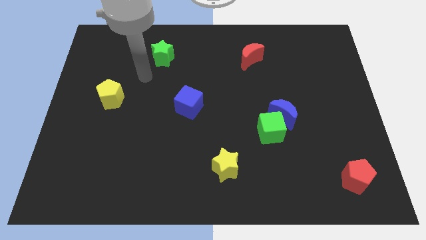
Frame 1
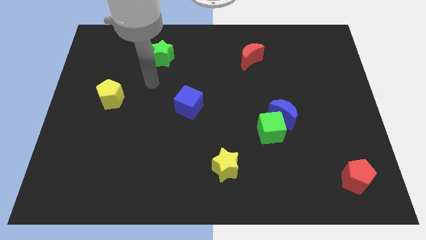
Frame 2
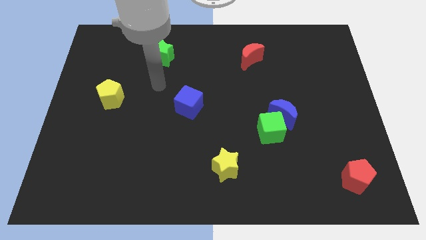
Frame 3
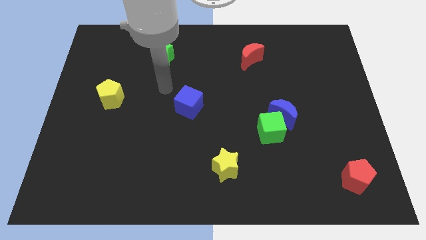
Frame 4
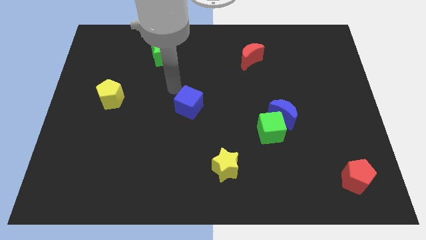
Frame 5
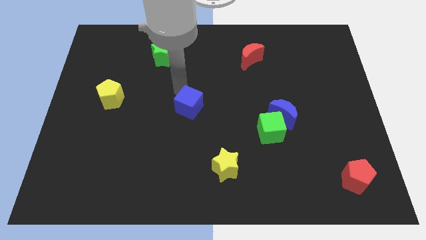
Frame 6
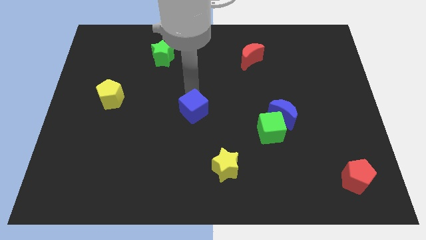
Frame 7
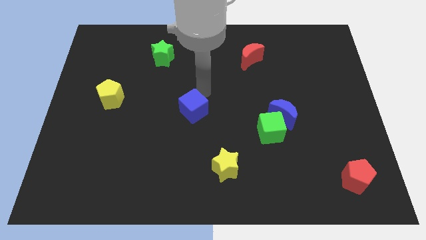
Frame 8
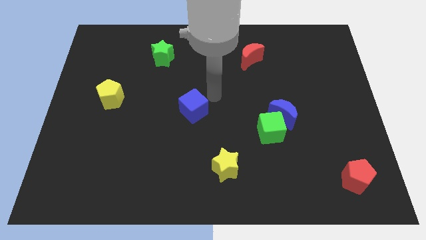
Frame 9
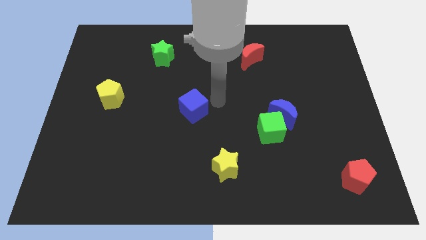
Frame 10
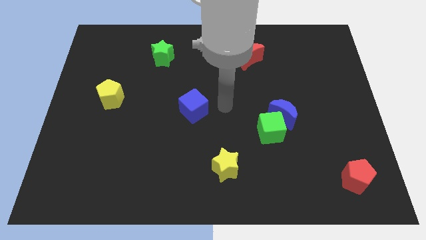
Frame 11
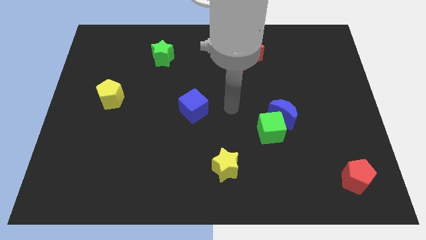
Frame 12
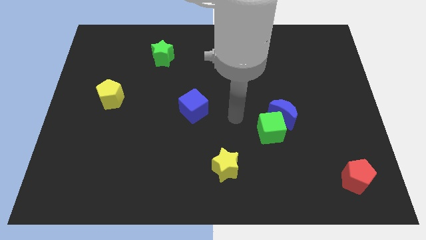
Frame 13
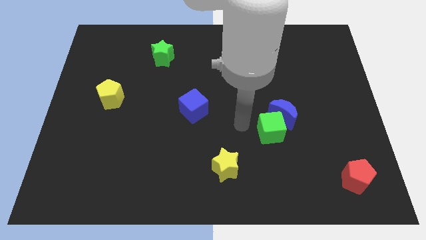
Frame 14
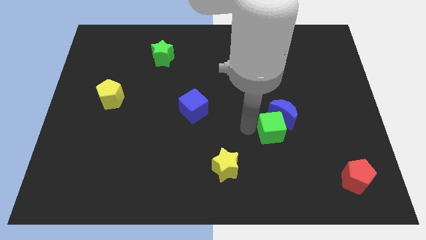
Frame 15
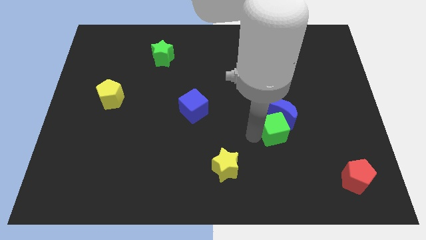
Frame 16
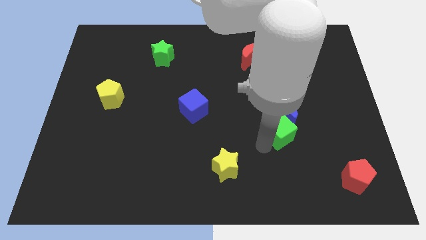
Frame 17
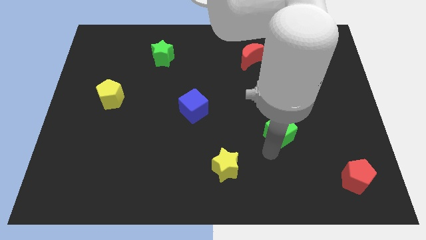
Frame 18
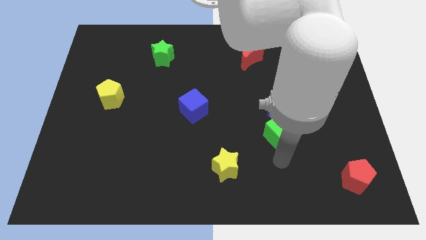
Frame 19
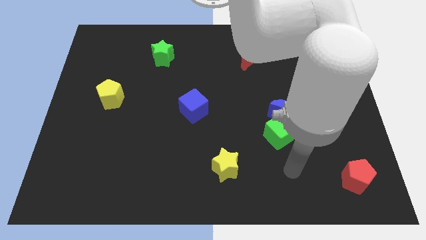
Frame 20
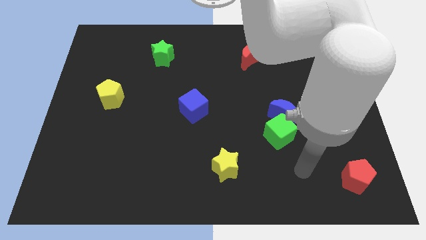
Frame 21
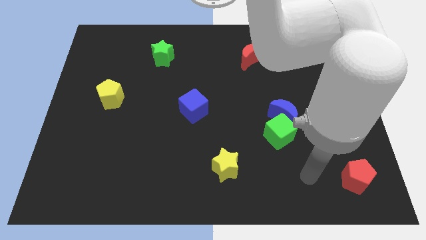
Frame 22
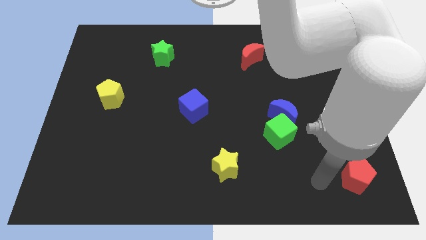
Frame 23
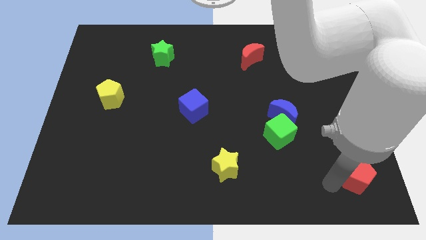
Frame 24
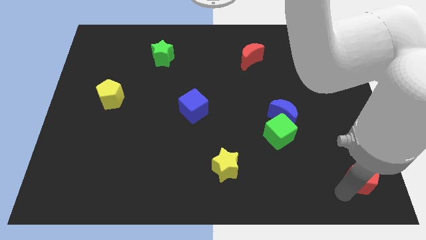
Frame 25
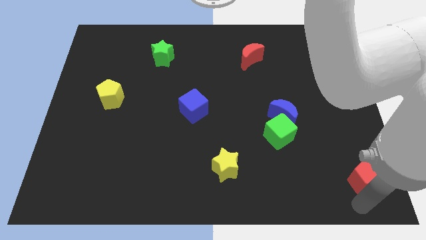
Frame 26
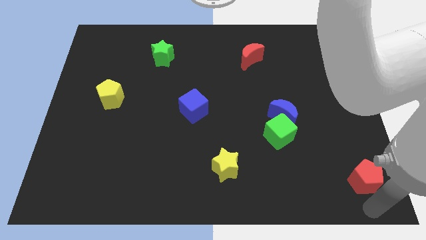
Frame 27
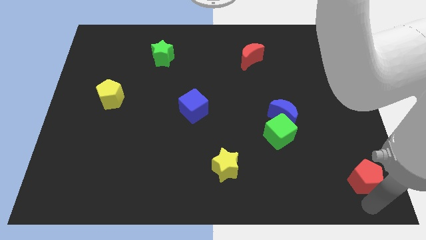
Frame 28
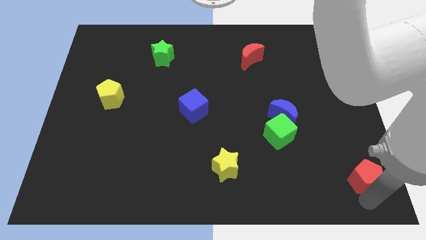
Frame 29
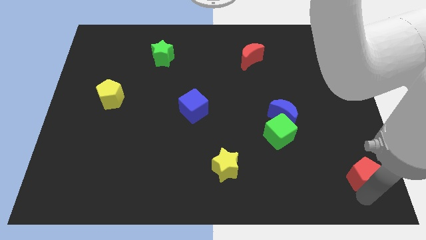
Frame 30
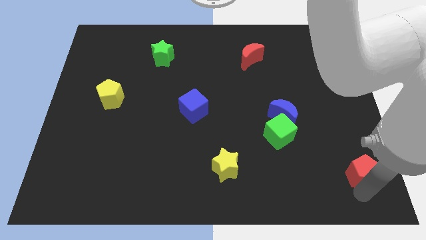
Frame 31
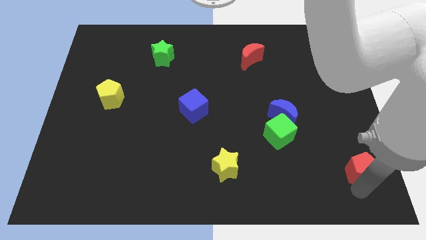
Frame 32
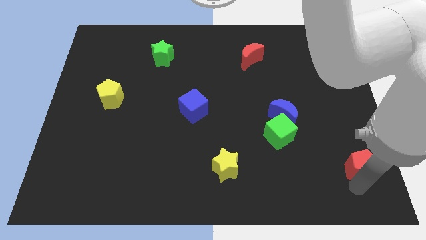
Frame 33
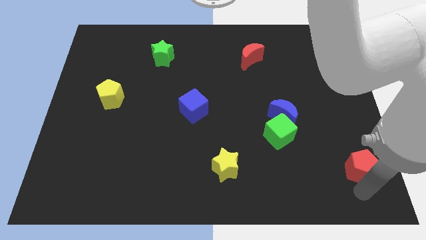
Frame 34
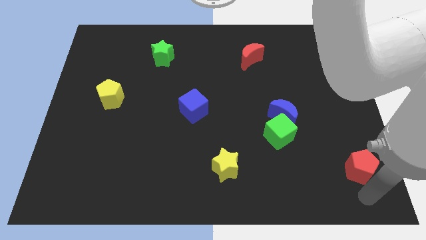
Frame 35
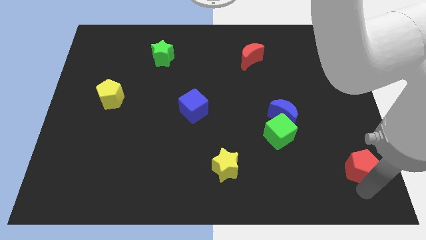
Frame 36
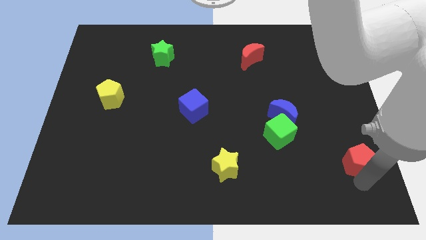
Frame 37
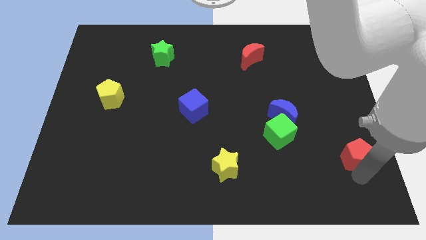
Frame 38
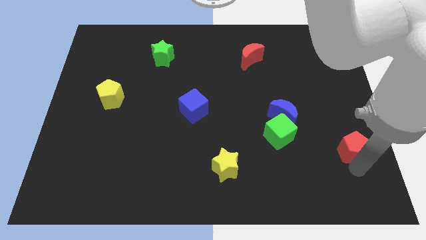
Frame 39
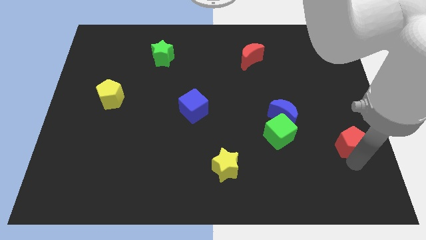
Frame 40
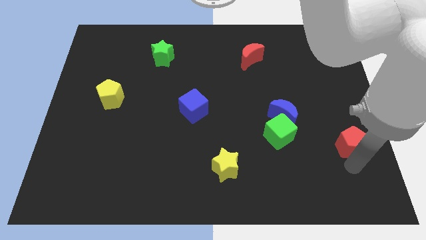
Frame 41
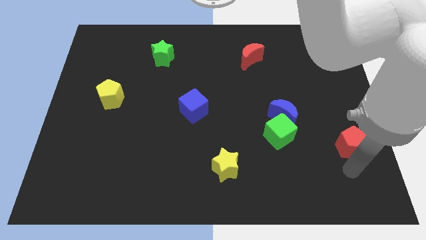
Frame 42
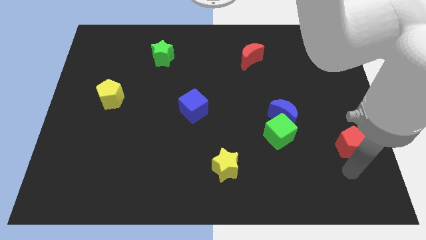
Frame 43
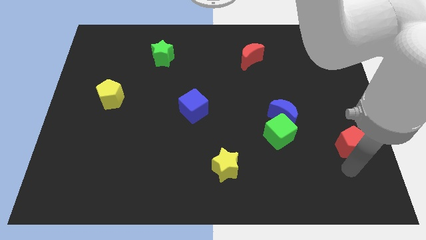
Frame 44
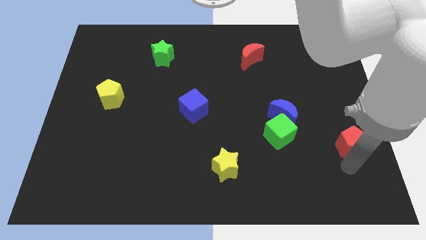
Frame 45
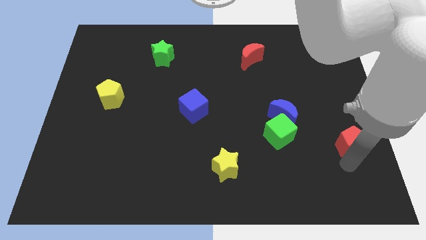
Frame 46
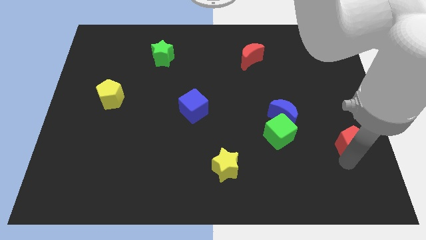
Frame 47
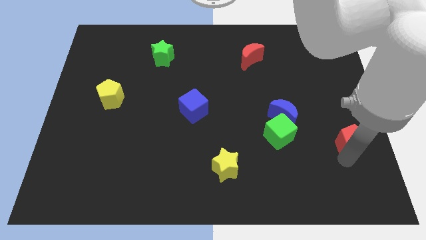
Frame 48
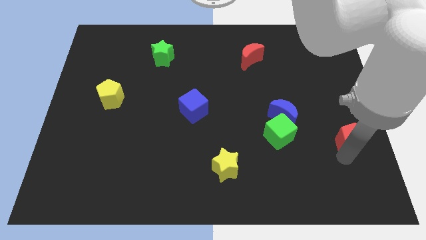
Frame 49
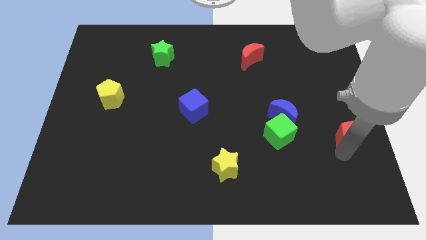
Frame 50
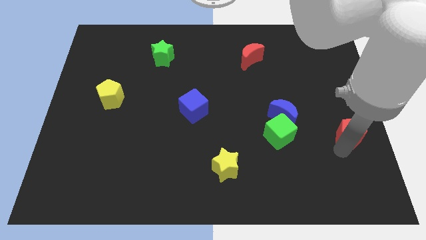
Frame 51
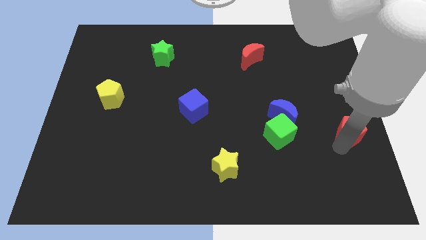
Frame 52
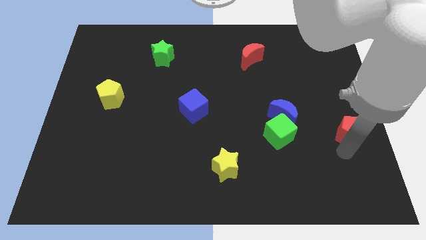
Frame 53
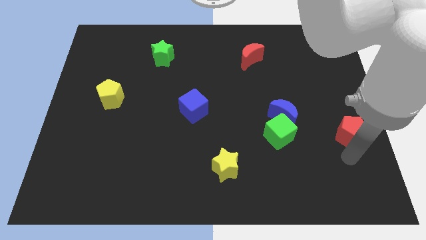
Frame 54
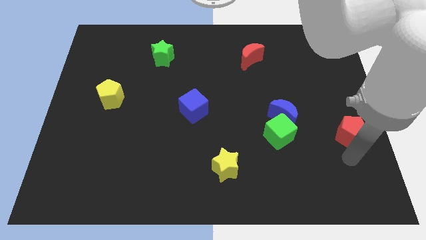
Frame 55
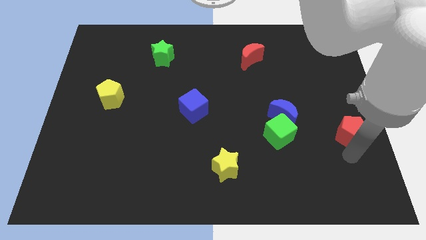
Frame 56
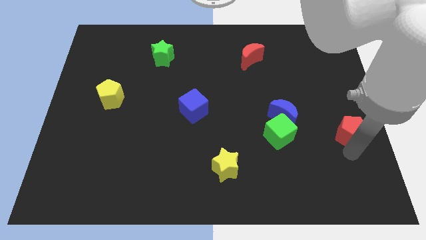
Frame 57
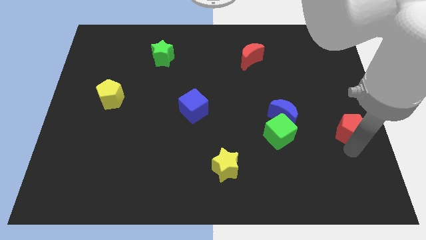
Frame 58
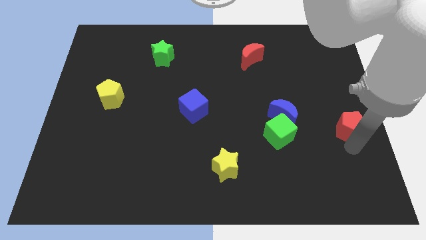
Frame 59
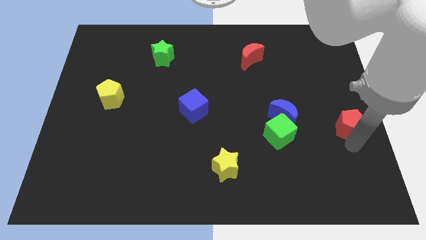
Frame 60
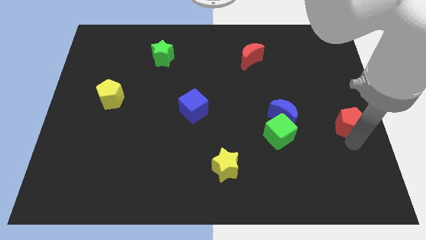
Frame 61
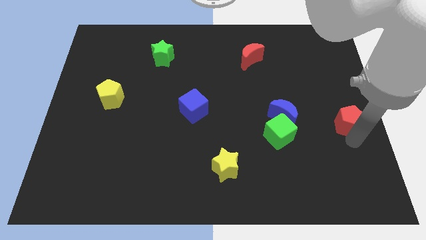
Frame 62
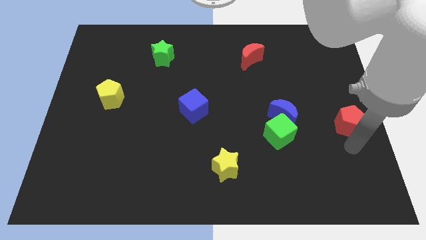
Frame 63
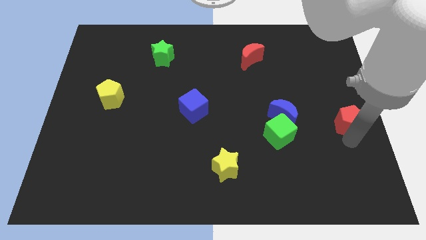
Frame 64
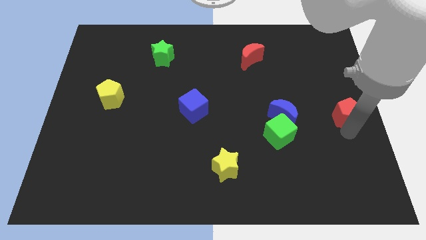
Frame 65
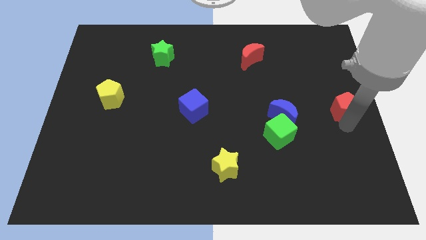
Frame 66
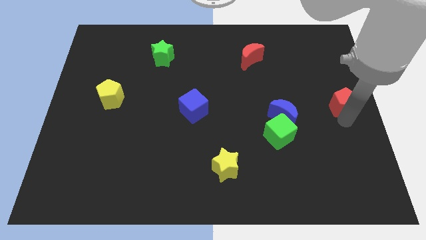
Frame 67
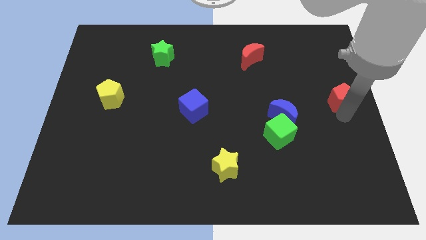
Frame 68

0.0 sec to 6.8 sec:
push the red pentagon up

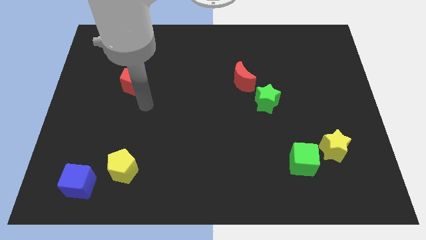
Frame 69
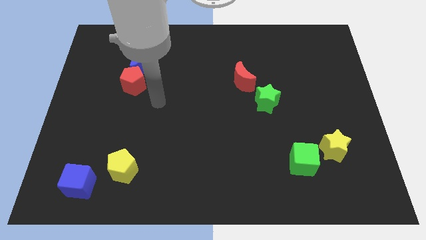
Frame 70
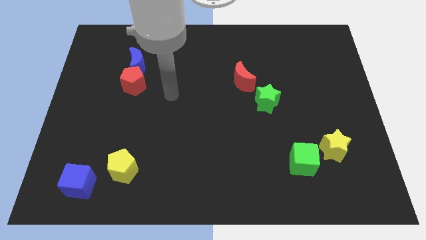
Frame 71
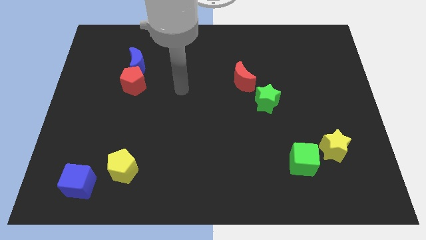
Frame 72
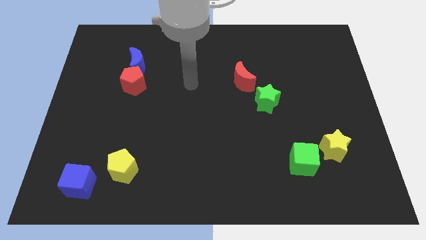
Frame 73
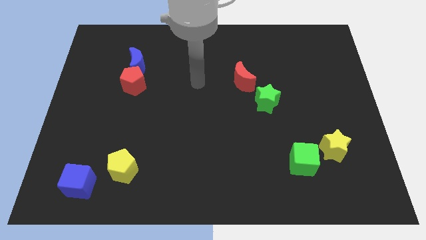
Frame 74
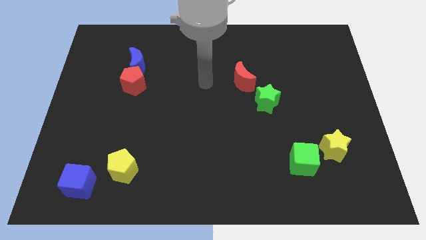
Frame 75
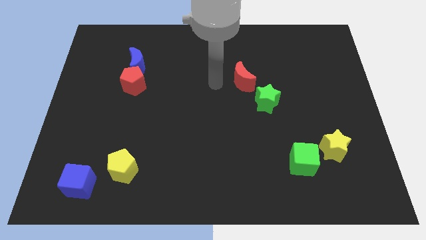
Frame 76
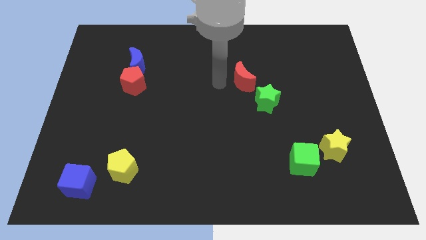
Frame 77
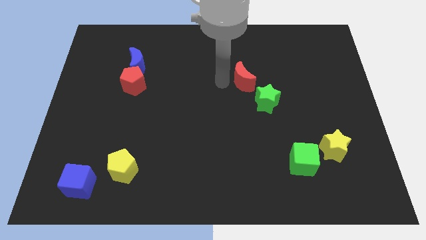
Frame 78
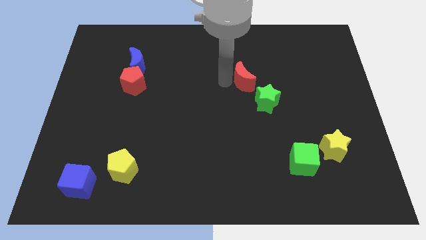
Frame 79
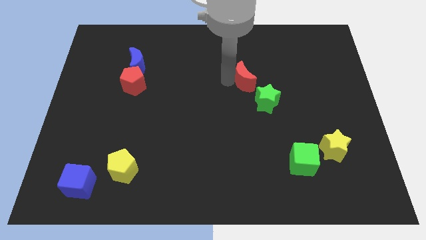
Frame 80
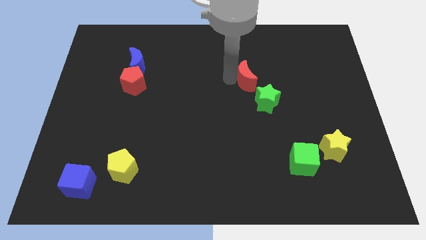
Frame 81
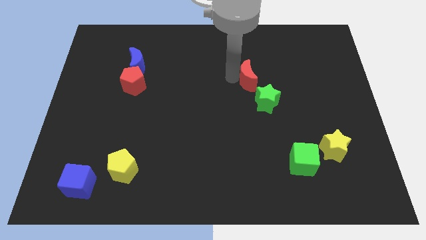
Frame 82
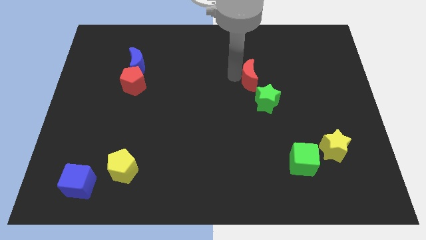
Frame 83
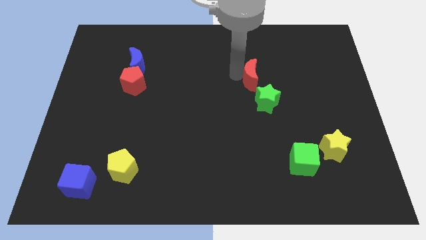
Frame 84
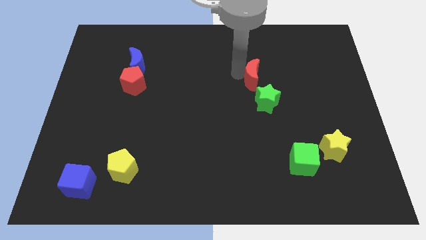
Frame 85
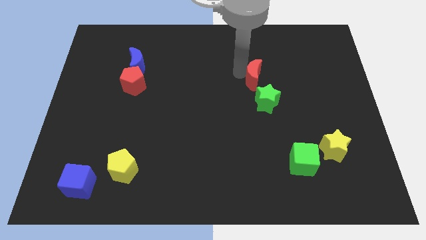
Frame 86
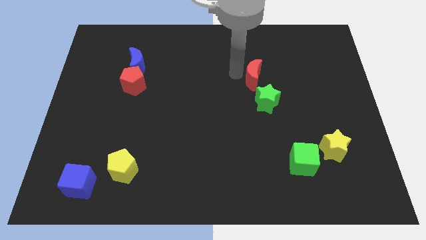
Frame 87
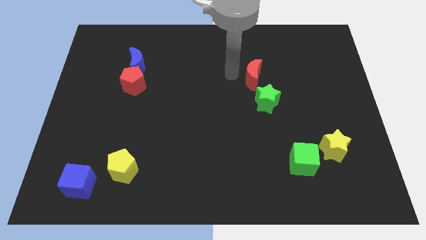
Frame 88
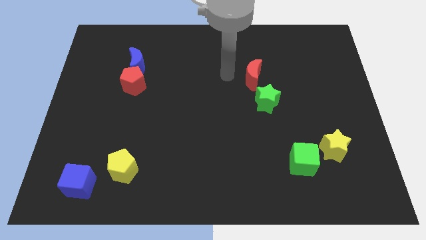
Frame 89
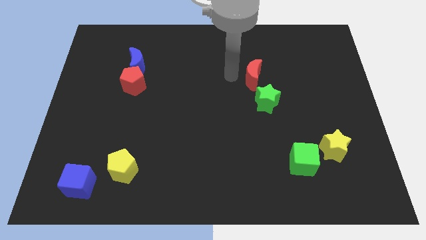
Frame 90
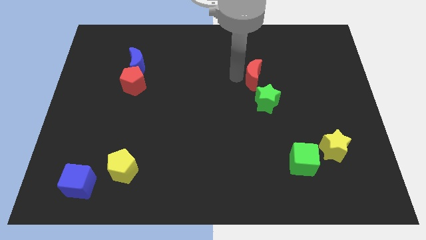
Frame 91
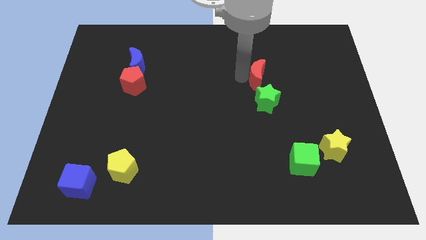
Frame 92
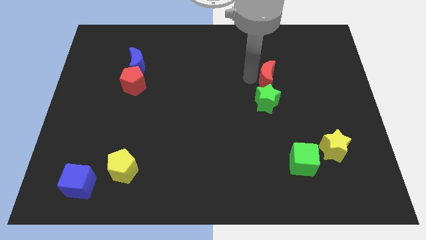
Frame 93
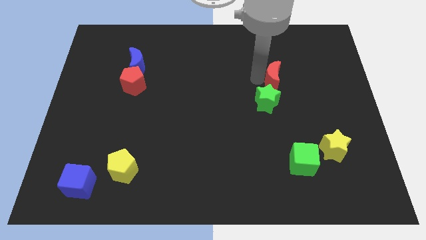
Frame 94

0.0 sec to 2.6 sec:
slightly push the red moon right
